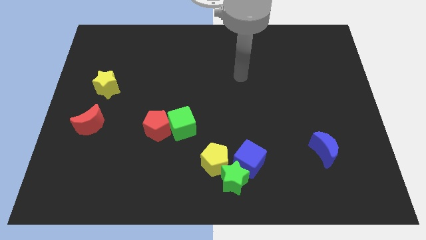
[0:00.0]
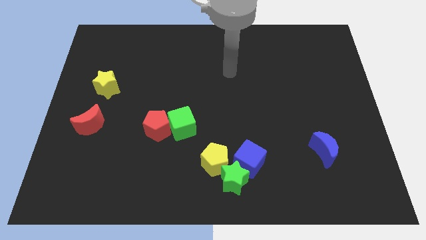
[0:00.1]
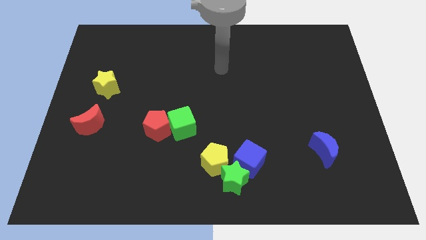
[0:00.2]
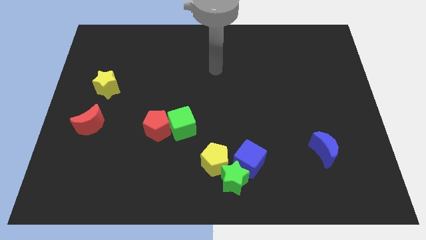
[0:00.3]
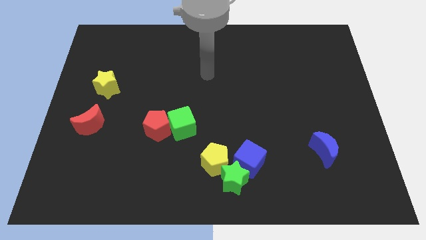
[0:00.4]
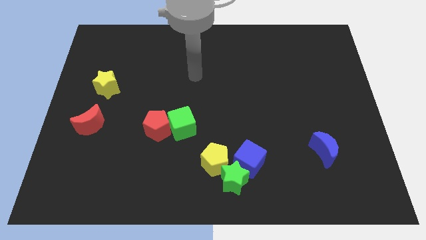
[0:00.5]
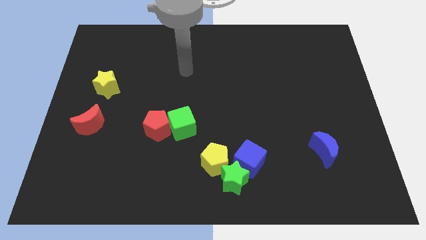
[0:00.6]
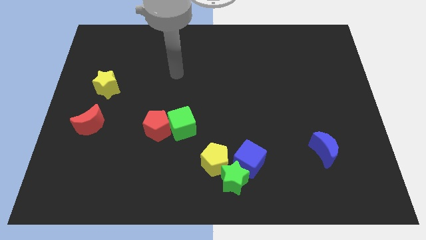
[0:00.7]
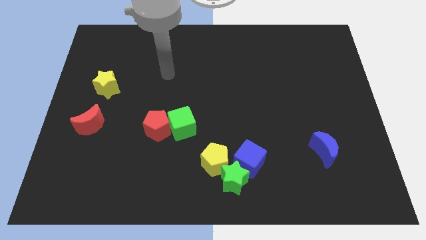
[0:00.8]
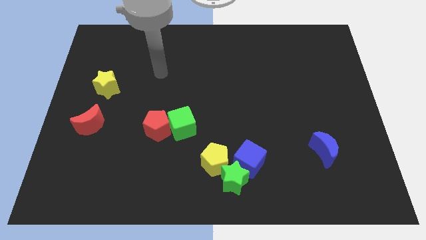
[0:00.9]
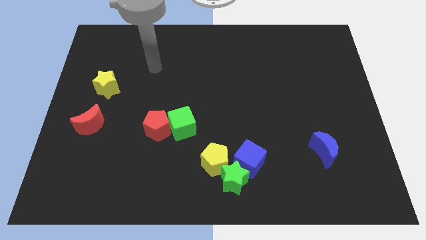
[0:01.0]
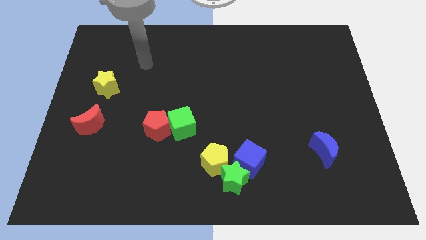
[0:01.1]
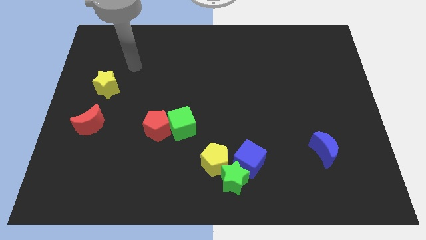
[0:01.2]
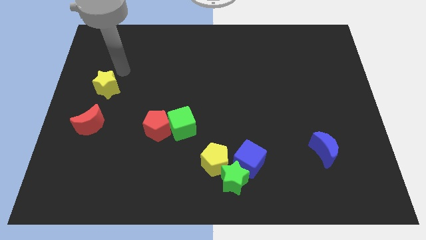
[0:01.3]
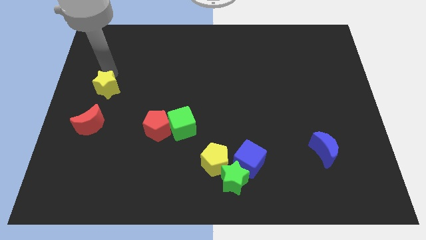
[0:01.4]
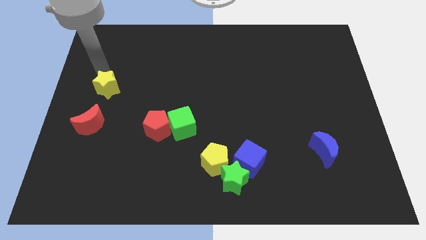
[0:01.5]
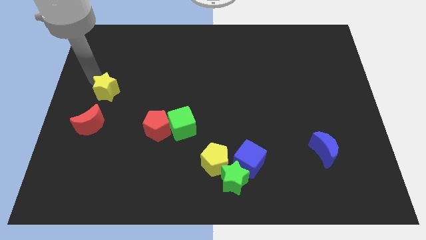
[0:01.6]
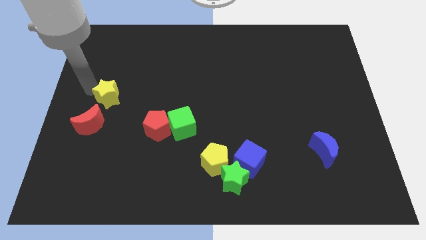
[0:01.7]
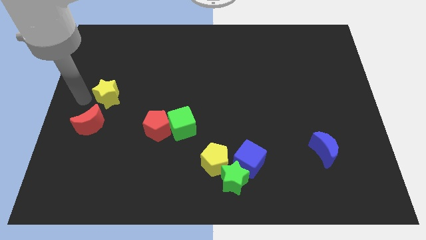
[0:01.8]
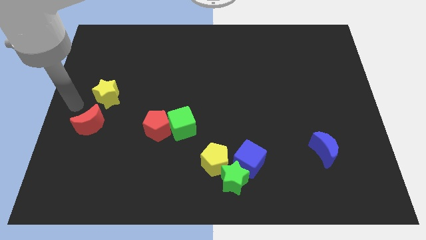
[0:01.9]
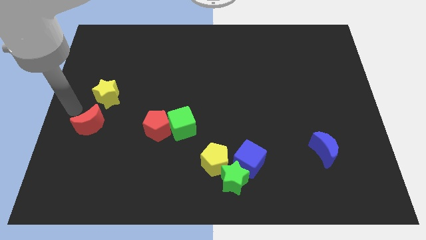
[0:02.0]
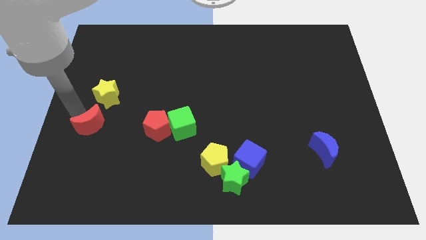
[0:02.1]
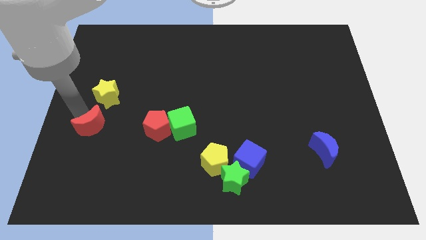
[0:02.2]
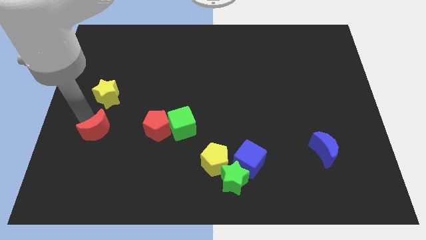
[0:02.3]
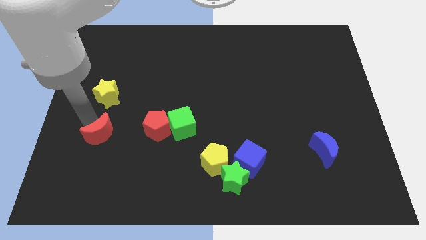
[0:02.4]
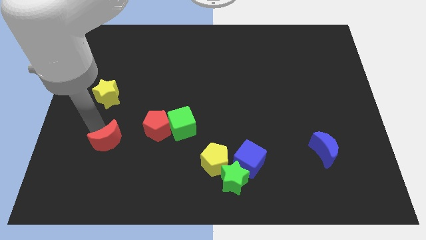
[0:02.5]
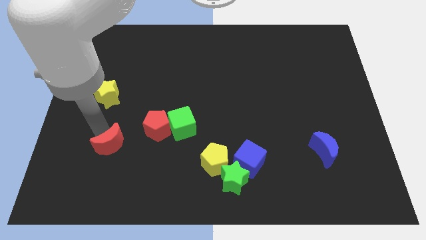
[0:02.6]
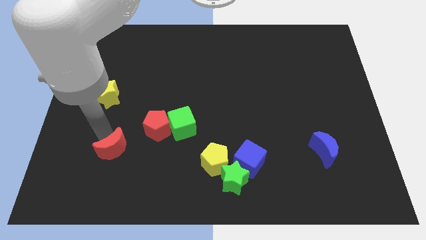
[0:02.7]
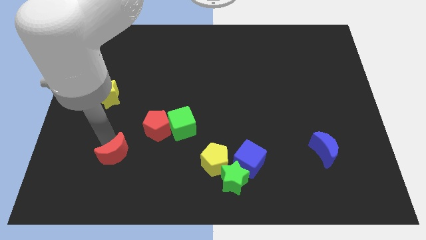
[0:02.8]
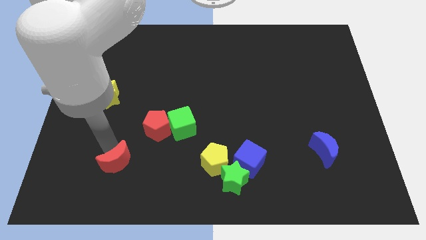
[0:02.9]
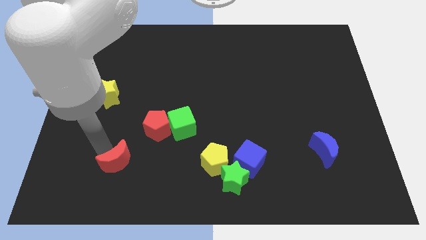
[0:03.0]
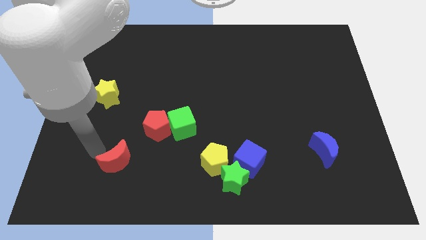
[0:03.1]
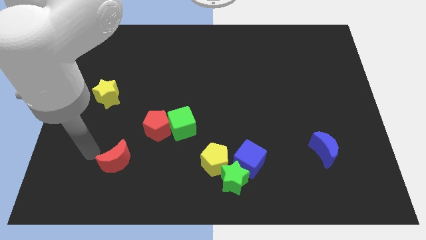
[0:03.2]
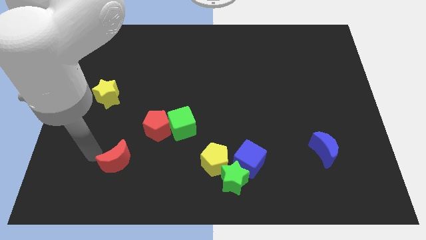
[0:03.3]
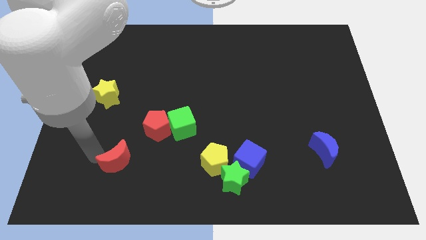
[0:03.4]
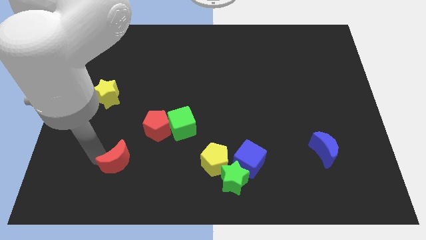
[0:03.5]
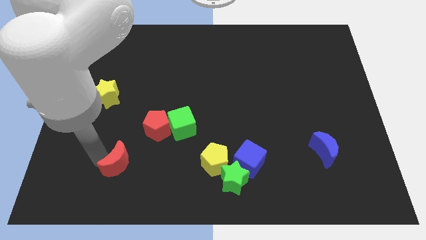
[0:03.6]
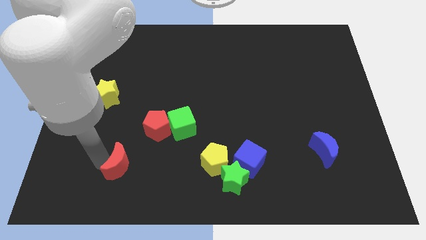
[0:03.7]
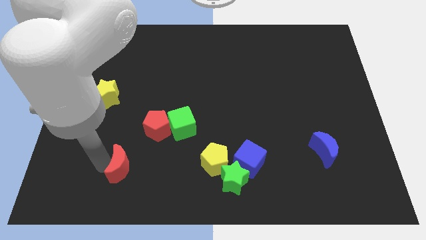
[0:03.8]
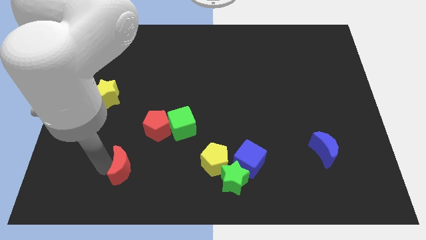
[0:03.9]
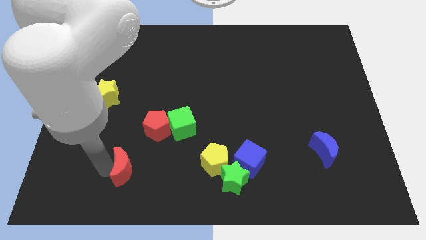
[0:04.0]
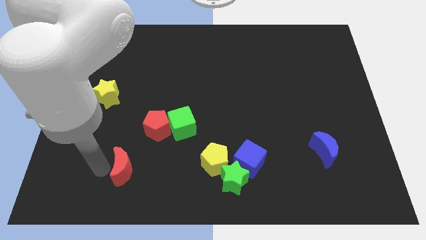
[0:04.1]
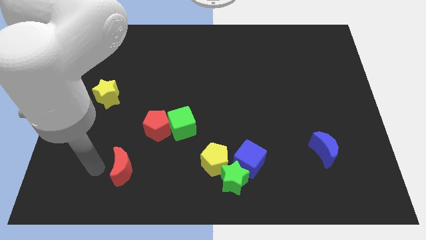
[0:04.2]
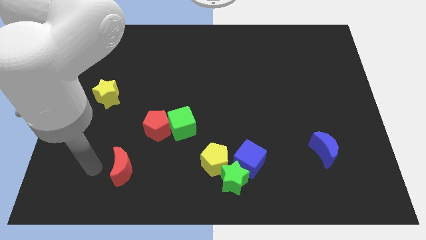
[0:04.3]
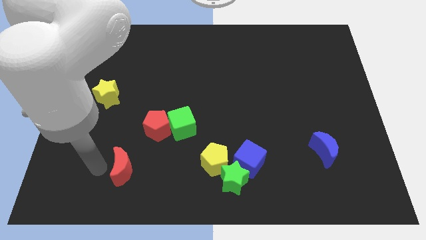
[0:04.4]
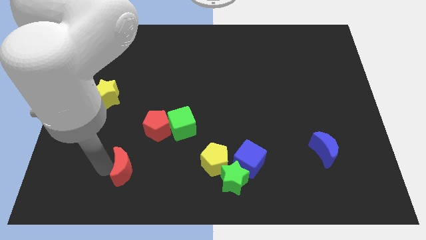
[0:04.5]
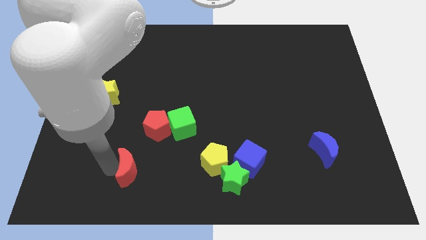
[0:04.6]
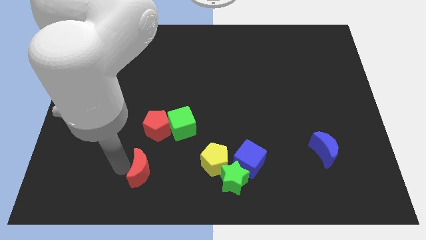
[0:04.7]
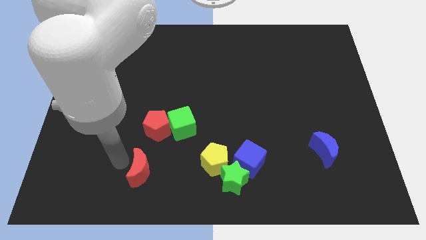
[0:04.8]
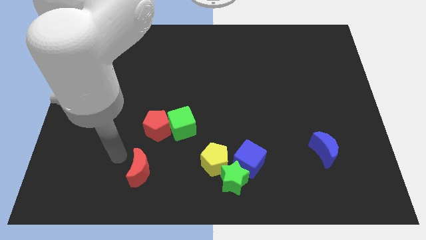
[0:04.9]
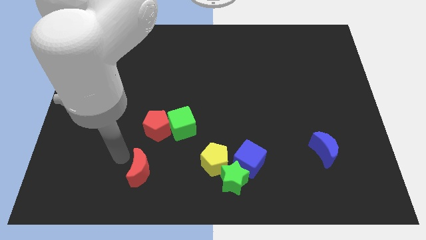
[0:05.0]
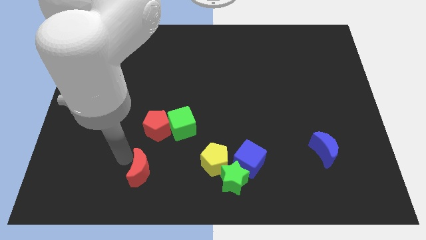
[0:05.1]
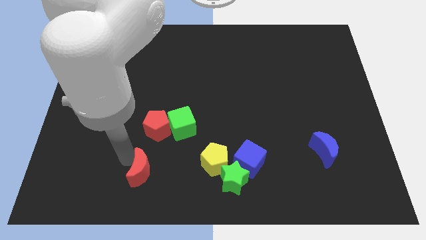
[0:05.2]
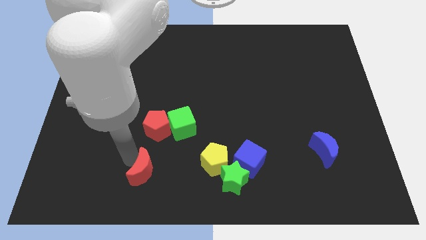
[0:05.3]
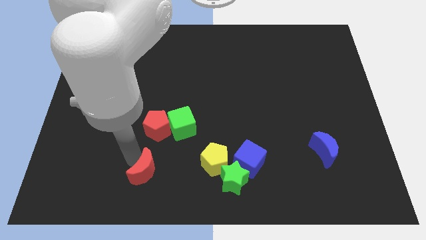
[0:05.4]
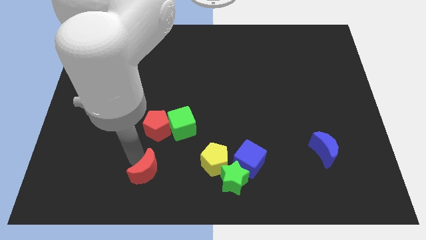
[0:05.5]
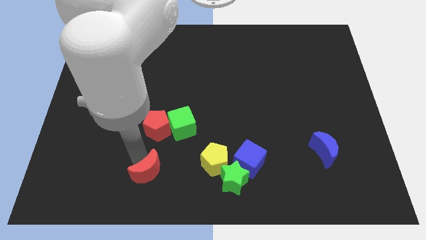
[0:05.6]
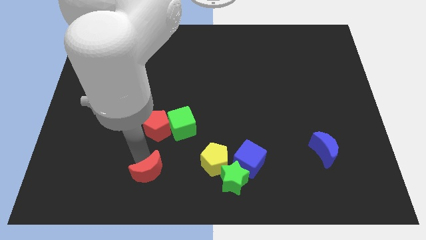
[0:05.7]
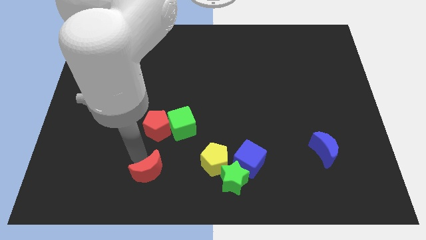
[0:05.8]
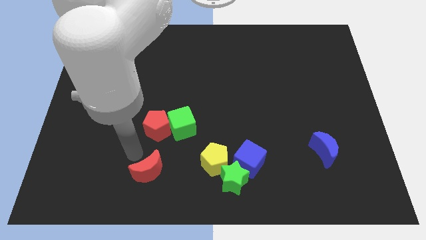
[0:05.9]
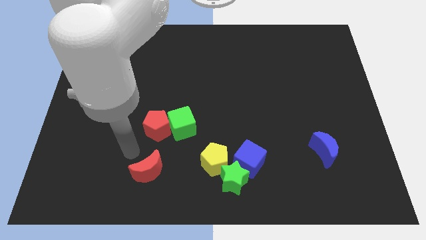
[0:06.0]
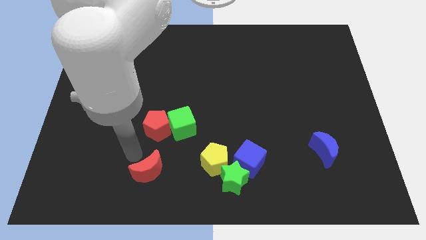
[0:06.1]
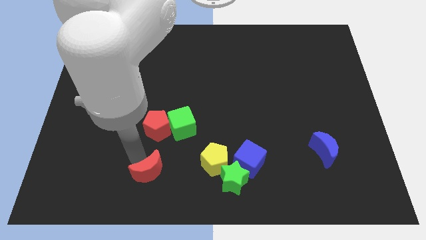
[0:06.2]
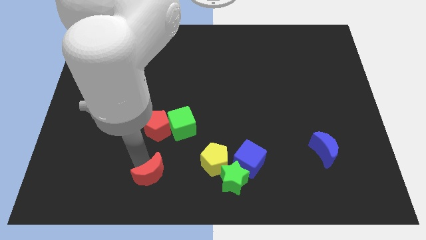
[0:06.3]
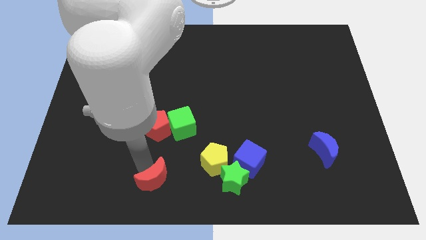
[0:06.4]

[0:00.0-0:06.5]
slide the red moon to the bottom

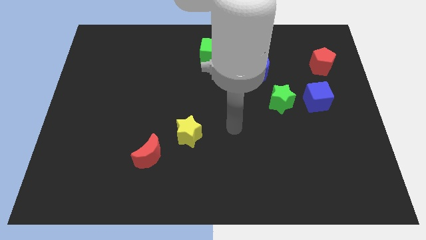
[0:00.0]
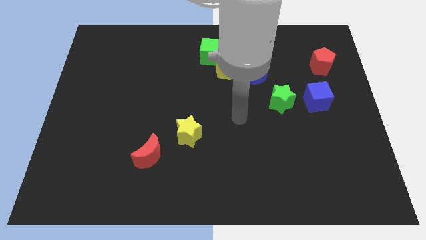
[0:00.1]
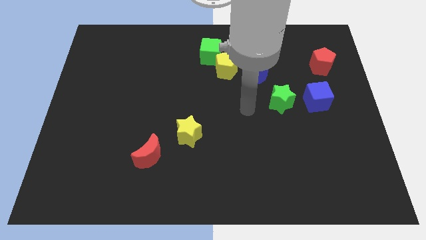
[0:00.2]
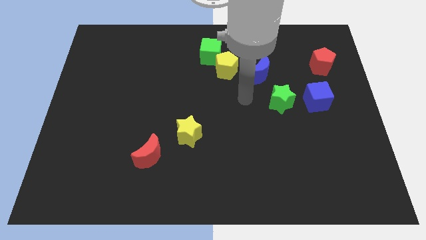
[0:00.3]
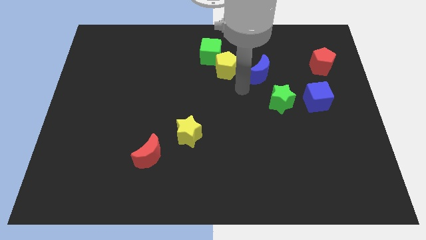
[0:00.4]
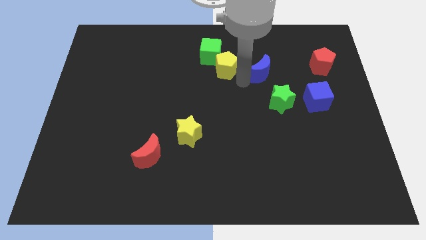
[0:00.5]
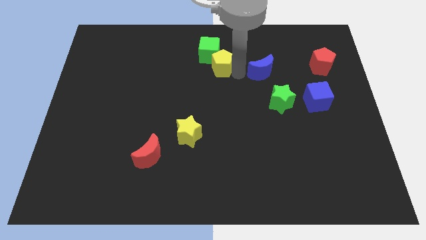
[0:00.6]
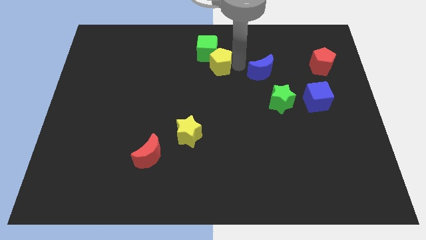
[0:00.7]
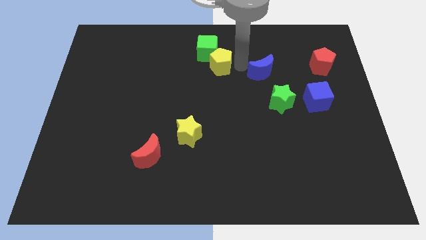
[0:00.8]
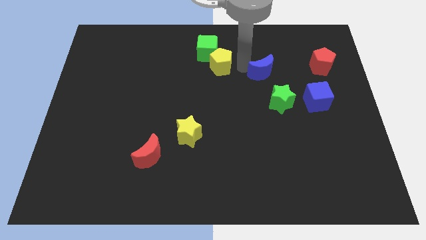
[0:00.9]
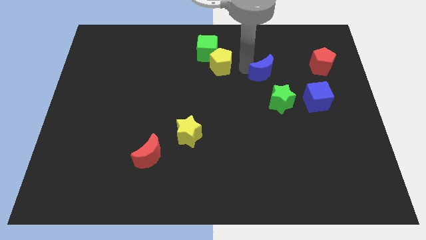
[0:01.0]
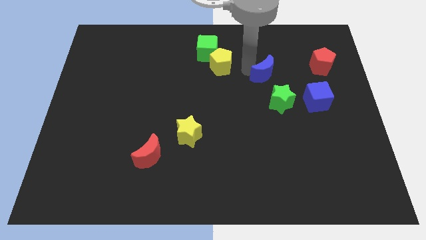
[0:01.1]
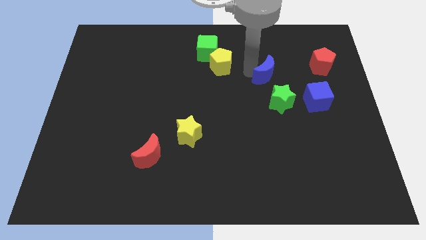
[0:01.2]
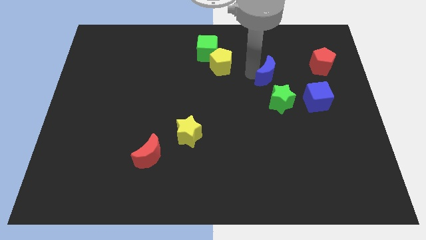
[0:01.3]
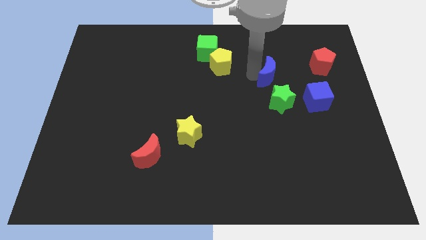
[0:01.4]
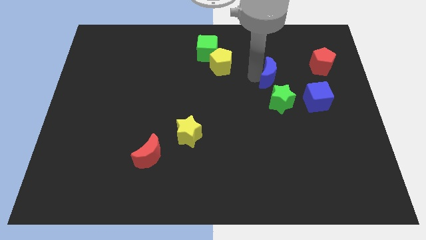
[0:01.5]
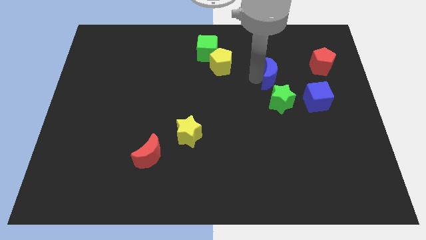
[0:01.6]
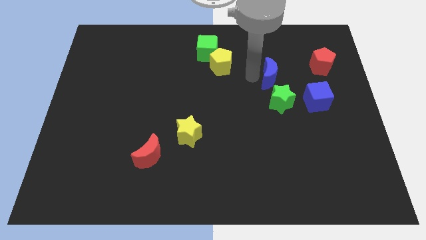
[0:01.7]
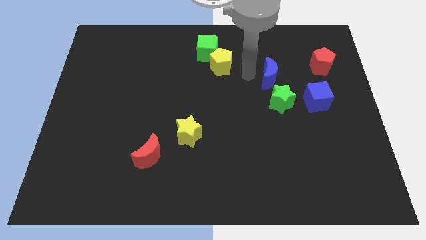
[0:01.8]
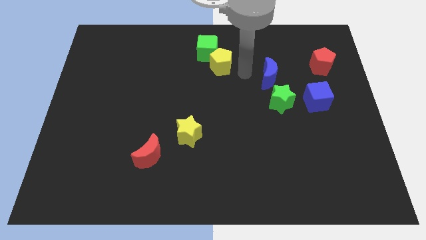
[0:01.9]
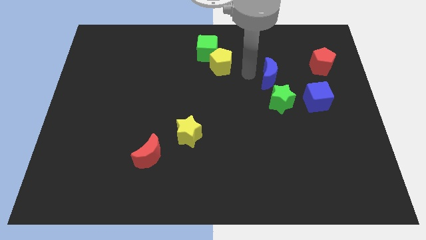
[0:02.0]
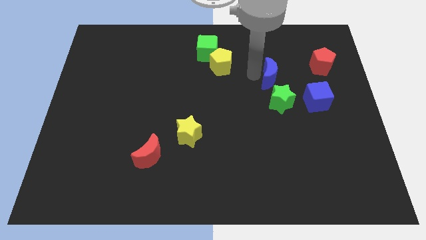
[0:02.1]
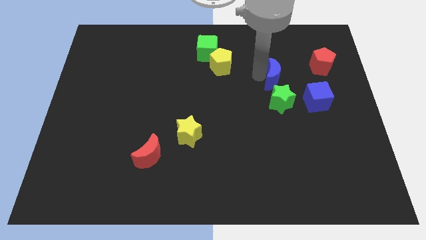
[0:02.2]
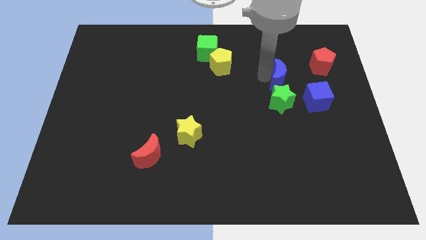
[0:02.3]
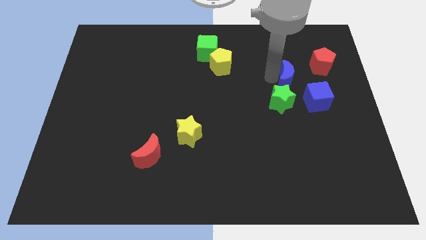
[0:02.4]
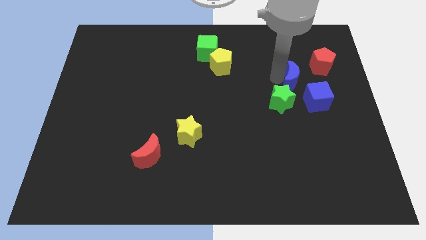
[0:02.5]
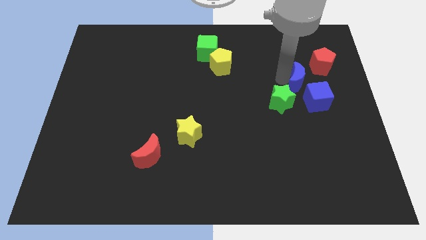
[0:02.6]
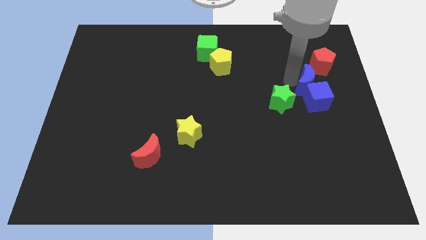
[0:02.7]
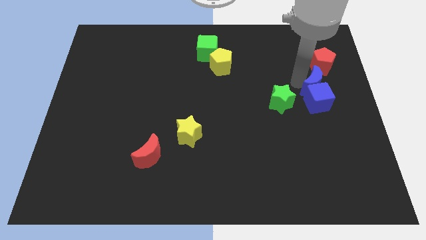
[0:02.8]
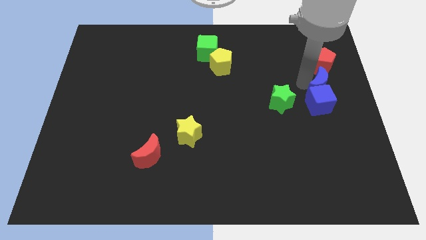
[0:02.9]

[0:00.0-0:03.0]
put the blue moon to the center right
